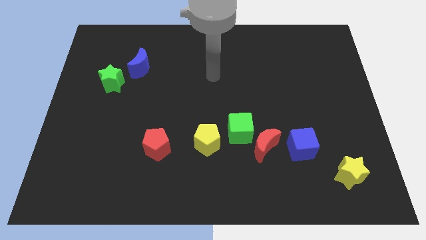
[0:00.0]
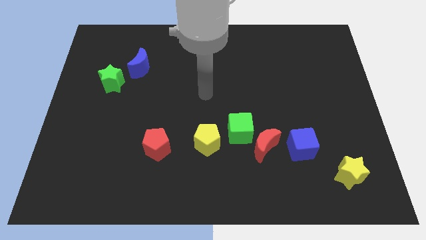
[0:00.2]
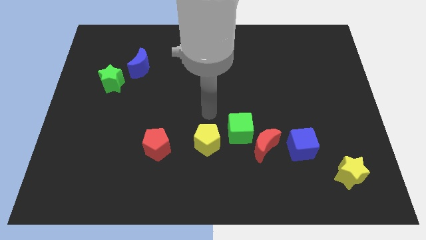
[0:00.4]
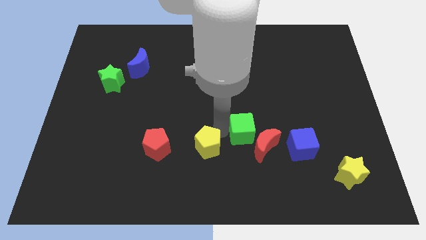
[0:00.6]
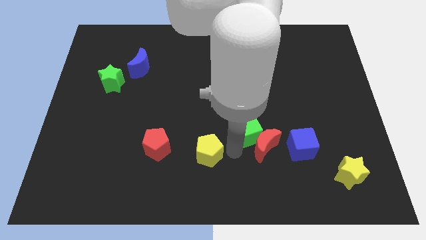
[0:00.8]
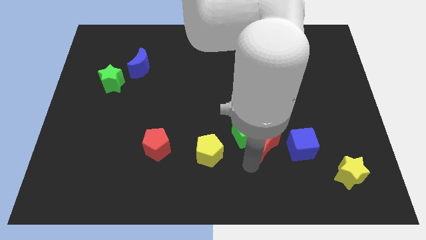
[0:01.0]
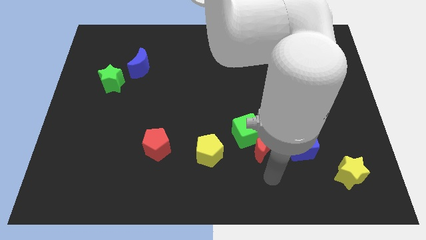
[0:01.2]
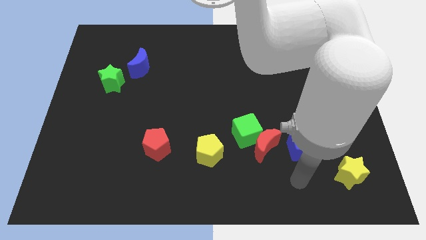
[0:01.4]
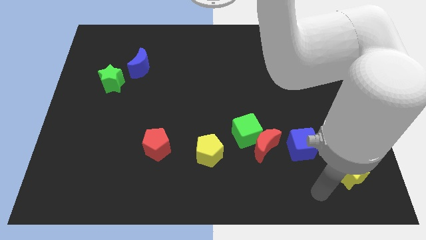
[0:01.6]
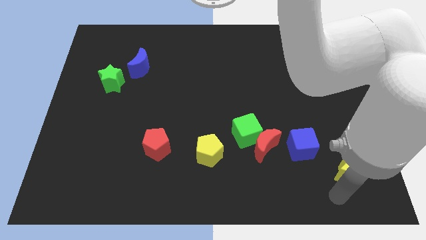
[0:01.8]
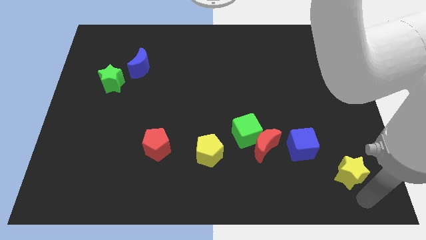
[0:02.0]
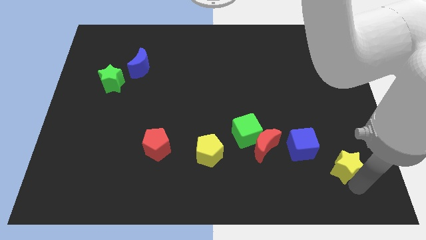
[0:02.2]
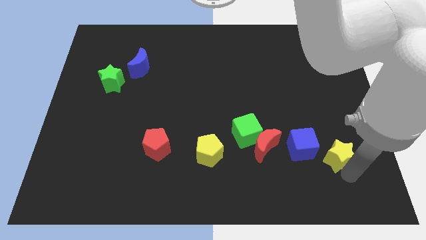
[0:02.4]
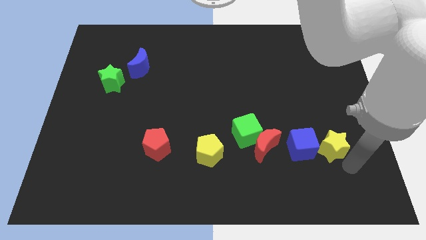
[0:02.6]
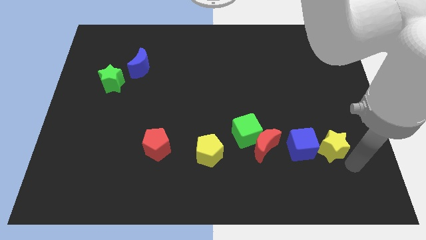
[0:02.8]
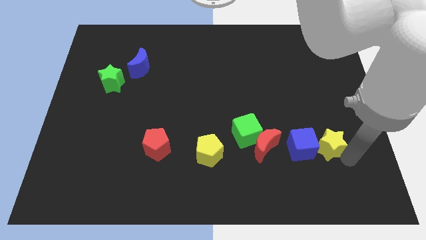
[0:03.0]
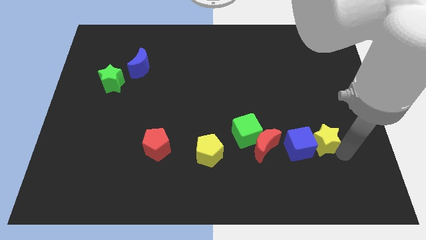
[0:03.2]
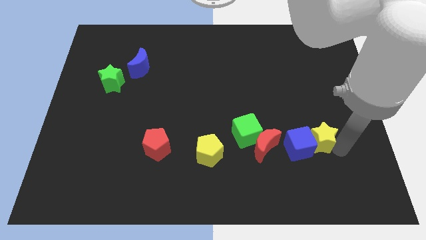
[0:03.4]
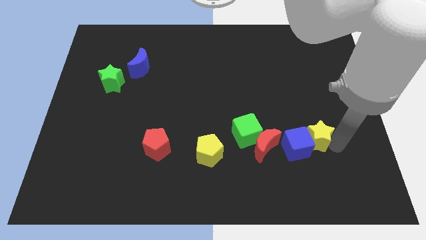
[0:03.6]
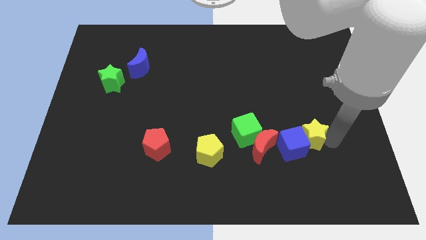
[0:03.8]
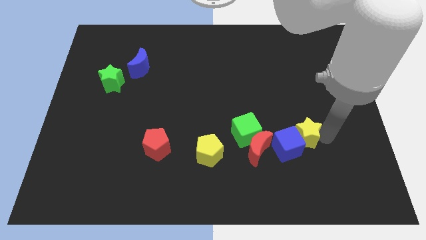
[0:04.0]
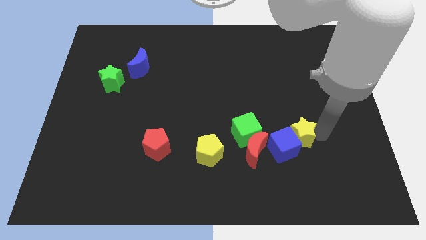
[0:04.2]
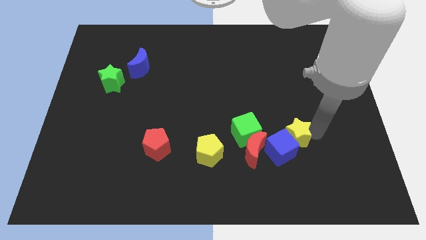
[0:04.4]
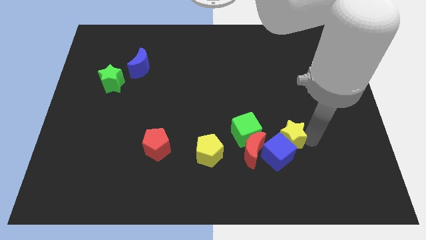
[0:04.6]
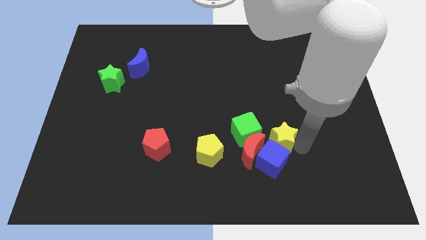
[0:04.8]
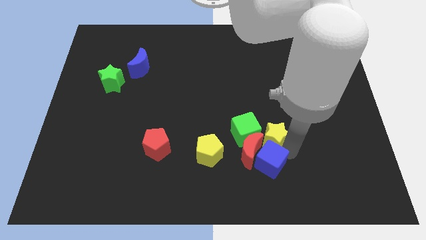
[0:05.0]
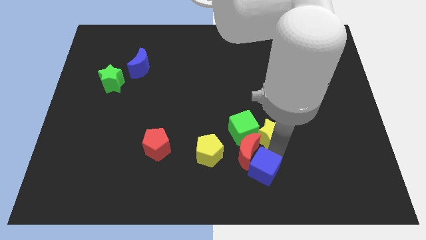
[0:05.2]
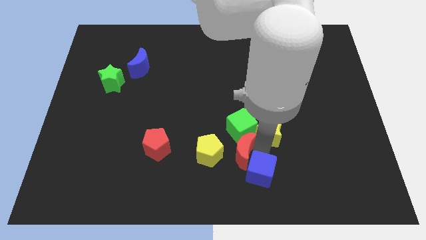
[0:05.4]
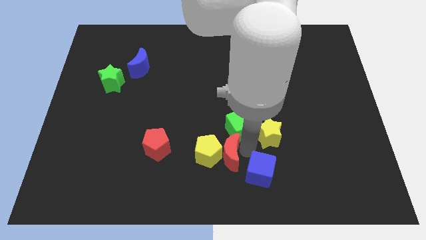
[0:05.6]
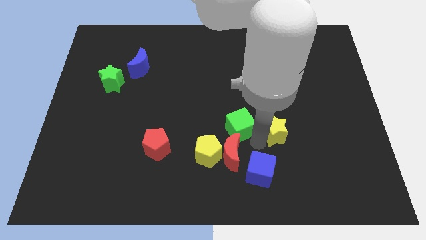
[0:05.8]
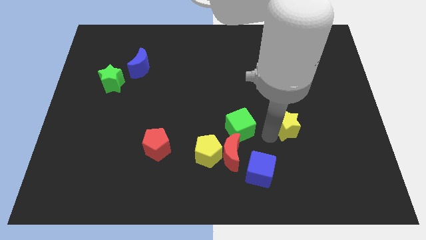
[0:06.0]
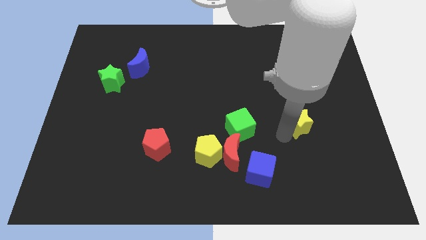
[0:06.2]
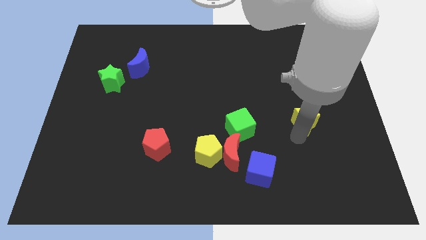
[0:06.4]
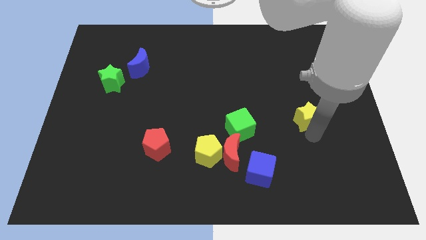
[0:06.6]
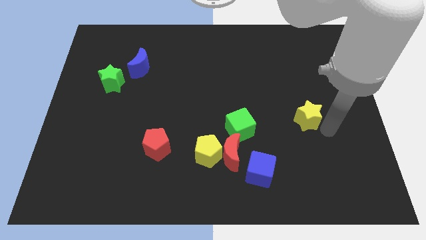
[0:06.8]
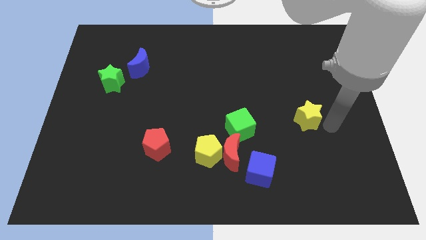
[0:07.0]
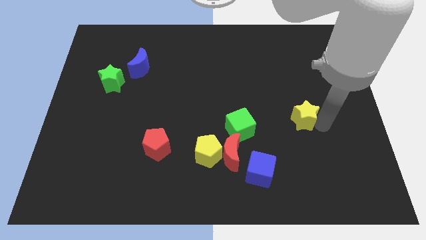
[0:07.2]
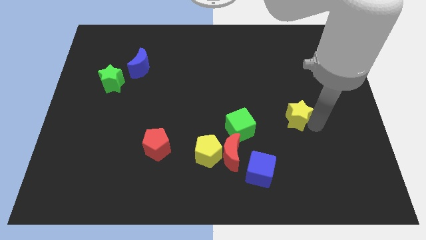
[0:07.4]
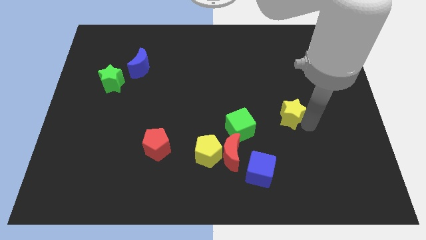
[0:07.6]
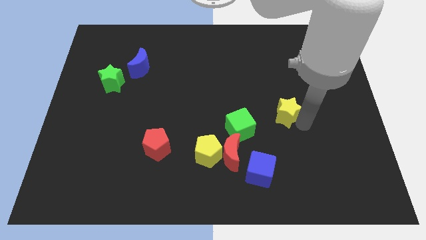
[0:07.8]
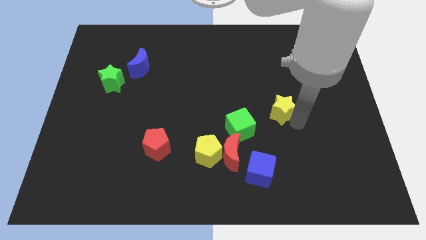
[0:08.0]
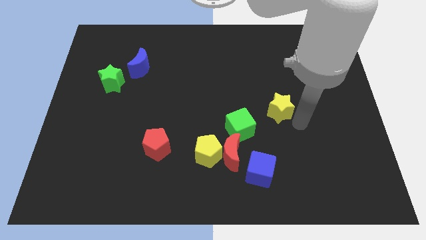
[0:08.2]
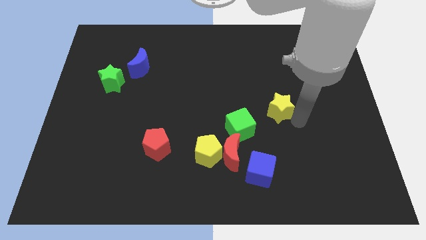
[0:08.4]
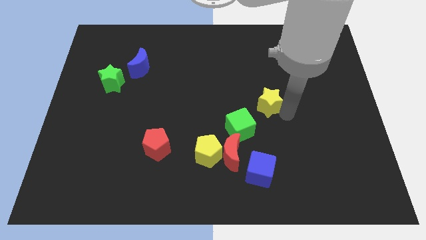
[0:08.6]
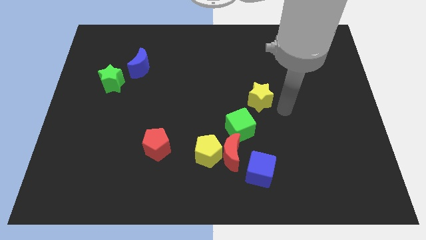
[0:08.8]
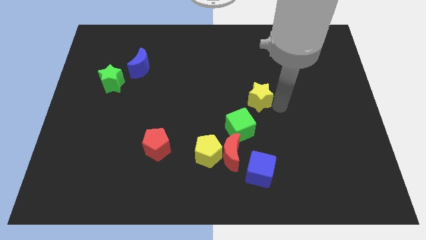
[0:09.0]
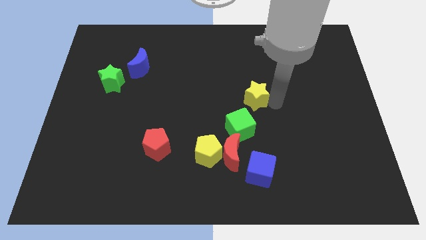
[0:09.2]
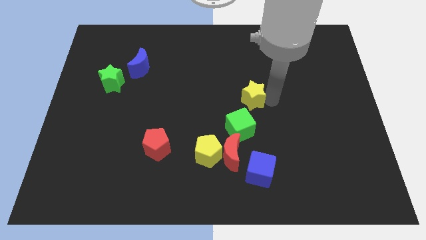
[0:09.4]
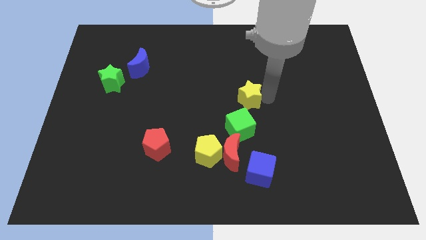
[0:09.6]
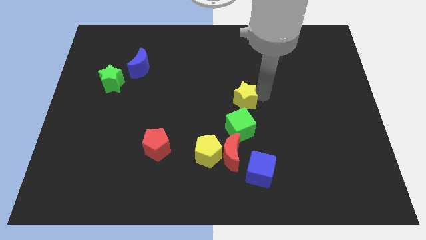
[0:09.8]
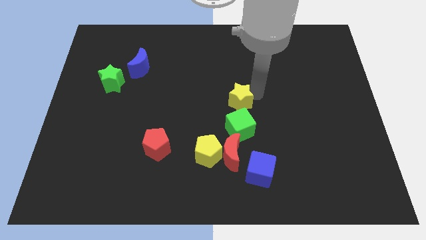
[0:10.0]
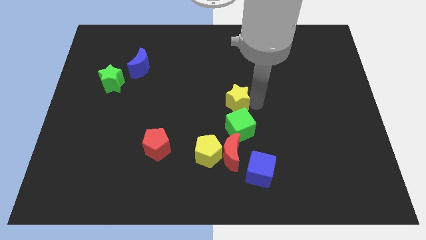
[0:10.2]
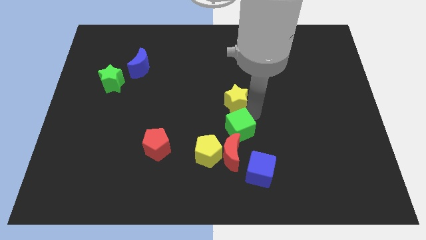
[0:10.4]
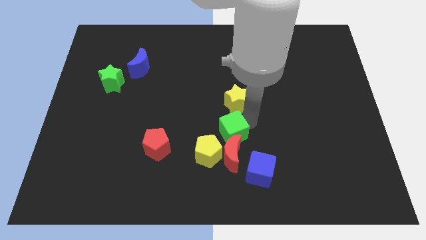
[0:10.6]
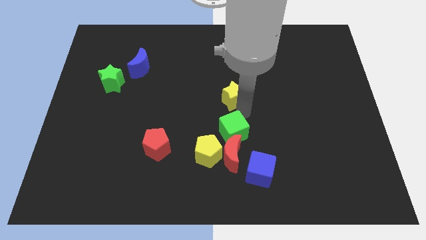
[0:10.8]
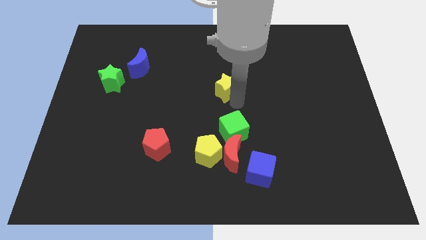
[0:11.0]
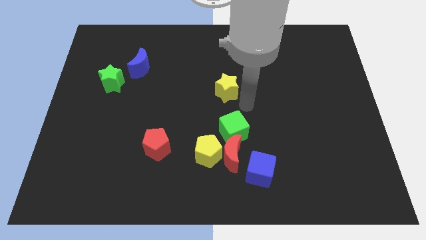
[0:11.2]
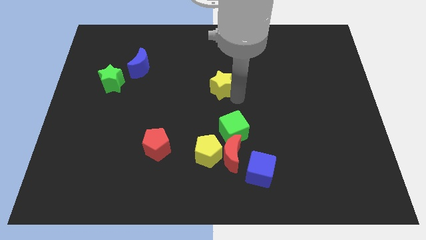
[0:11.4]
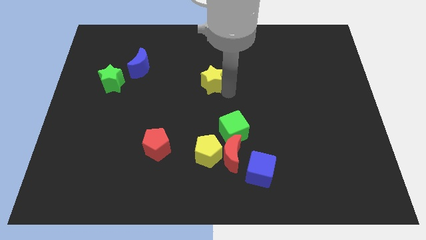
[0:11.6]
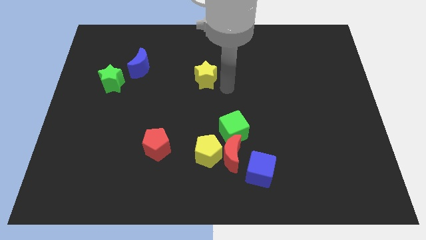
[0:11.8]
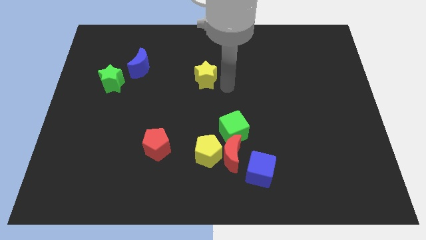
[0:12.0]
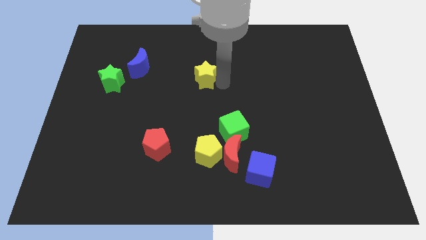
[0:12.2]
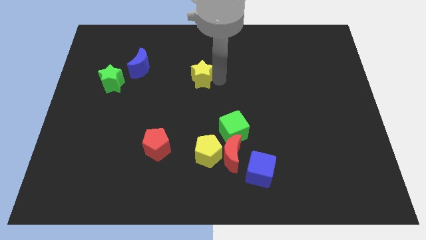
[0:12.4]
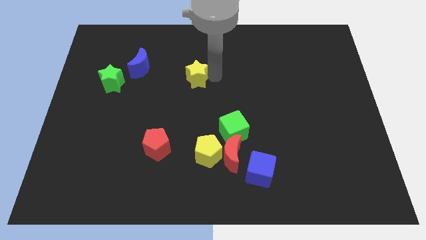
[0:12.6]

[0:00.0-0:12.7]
push the yellow star to the right side of the blue moon
